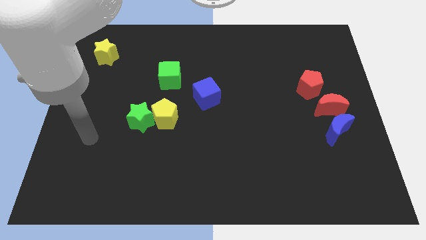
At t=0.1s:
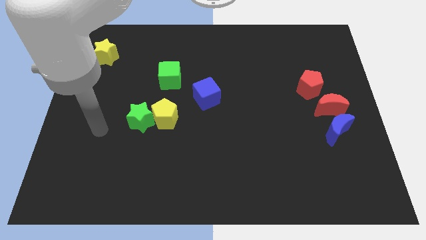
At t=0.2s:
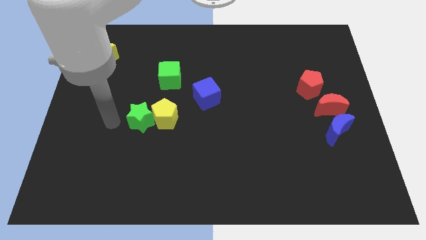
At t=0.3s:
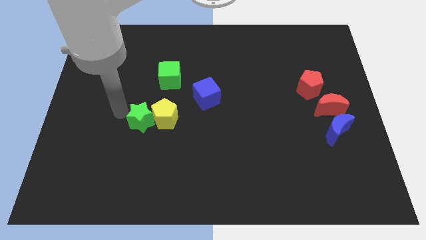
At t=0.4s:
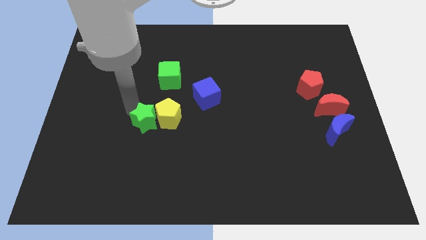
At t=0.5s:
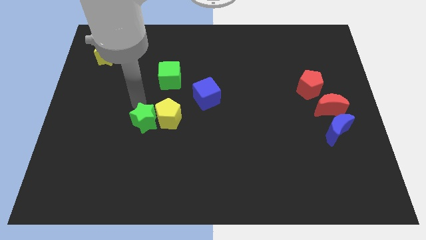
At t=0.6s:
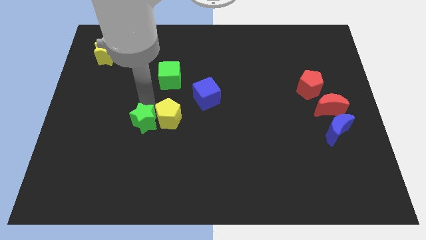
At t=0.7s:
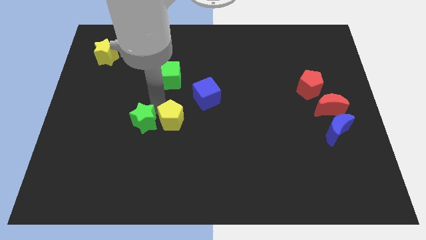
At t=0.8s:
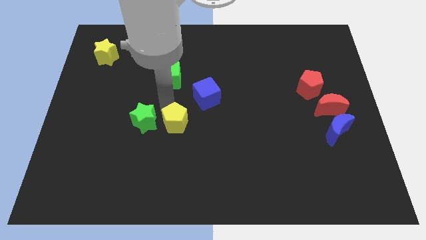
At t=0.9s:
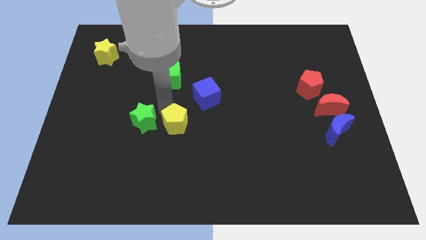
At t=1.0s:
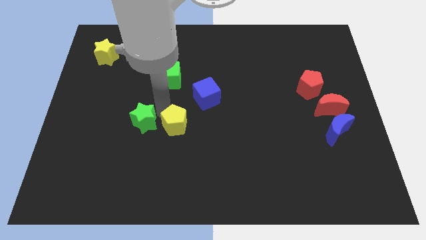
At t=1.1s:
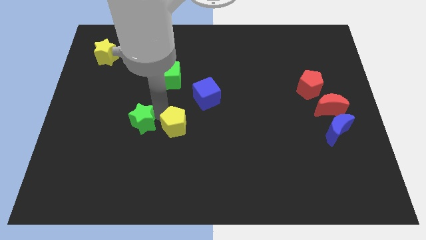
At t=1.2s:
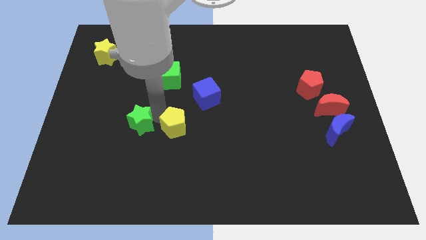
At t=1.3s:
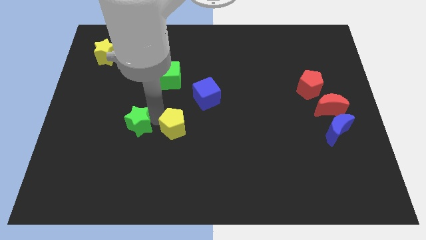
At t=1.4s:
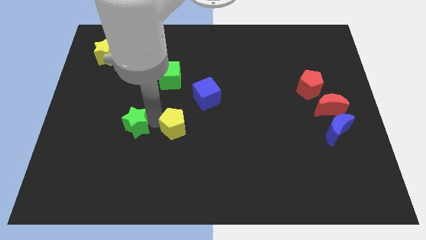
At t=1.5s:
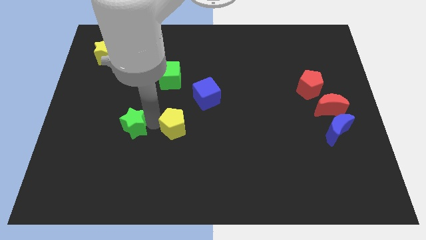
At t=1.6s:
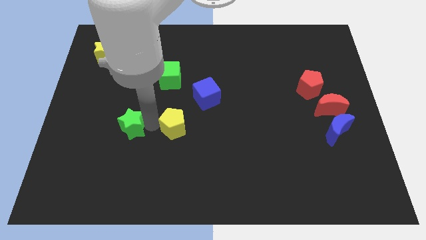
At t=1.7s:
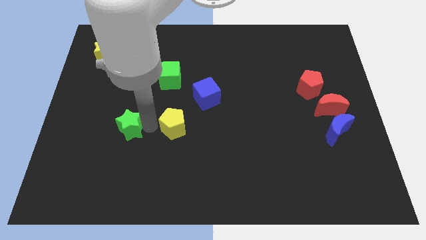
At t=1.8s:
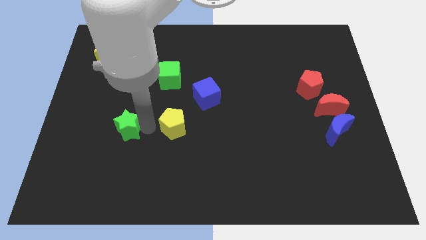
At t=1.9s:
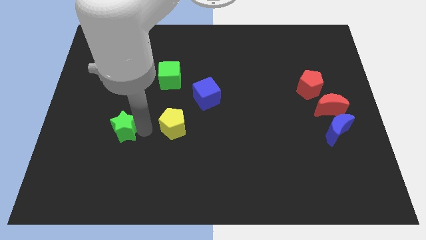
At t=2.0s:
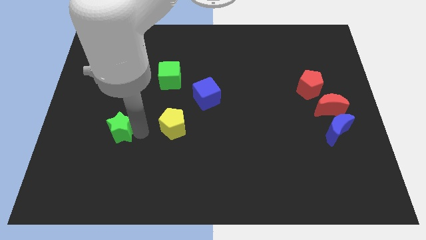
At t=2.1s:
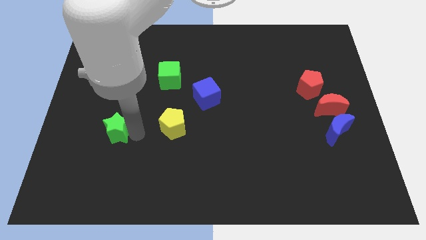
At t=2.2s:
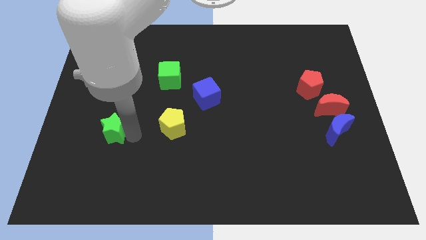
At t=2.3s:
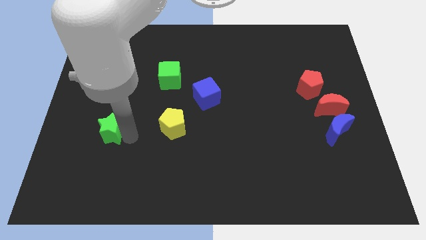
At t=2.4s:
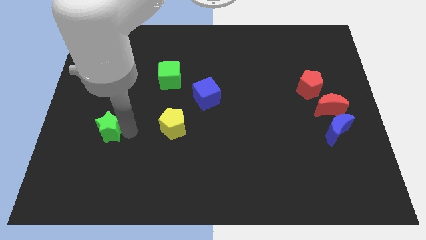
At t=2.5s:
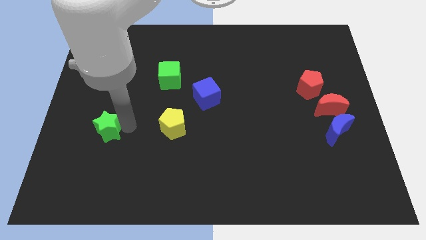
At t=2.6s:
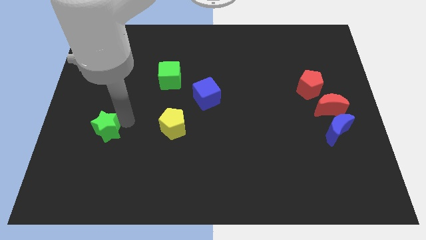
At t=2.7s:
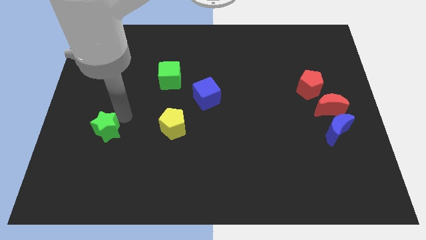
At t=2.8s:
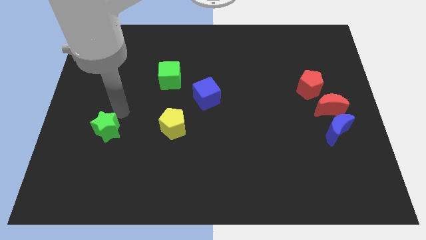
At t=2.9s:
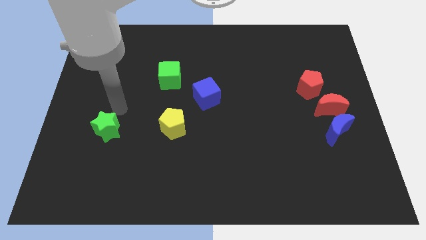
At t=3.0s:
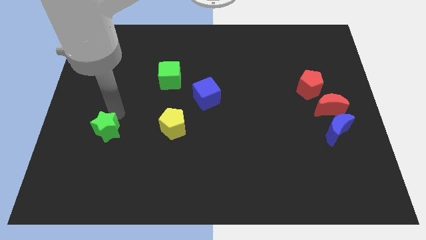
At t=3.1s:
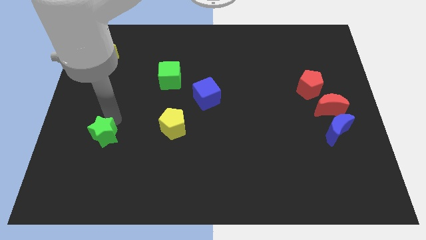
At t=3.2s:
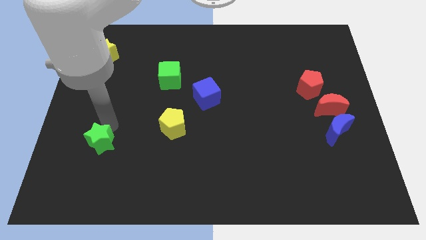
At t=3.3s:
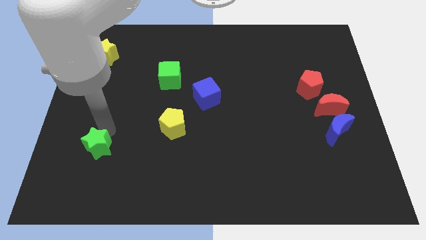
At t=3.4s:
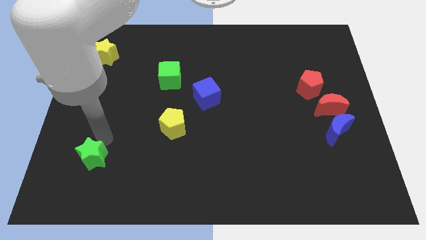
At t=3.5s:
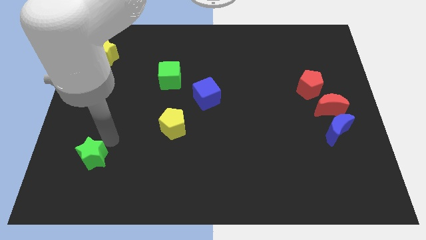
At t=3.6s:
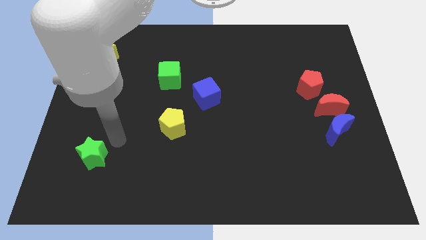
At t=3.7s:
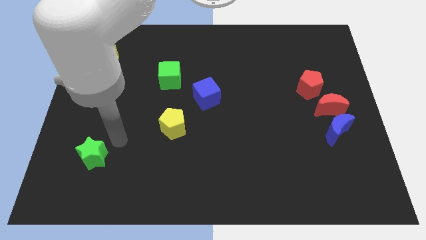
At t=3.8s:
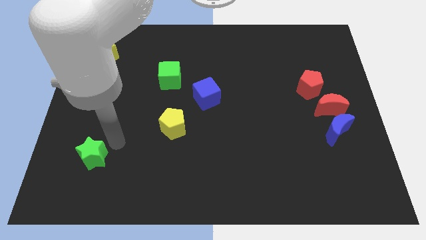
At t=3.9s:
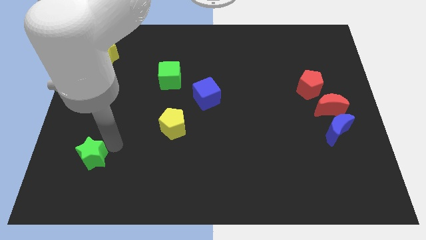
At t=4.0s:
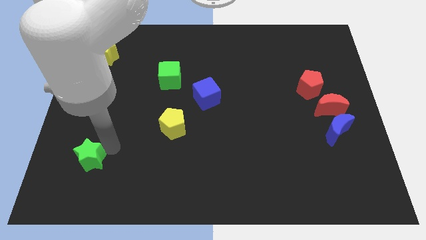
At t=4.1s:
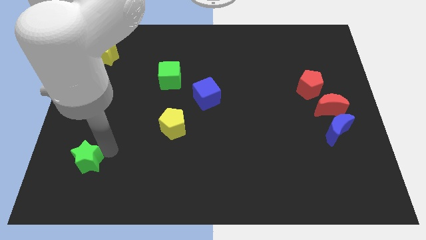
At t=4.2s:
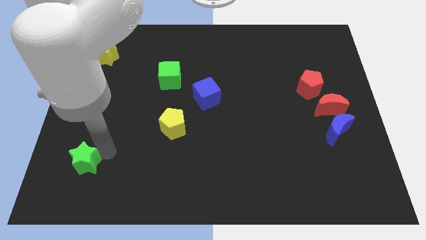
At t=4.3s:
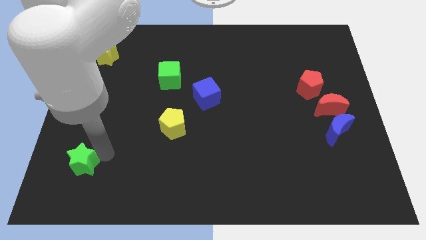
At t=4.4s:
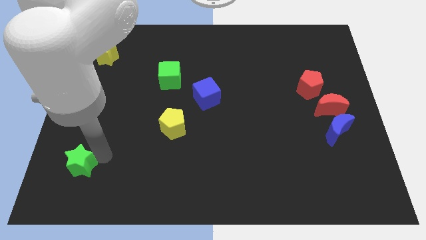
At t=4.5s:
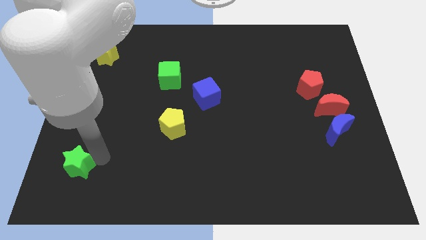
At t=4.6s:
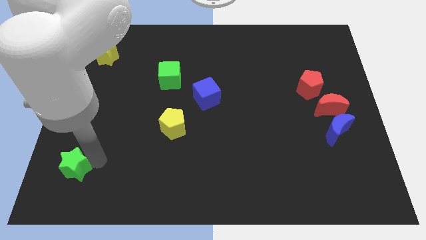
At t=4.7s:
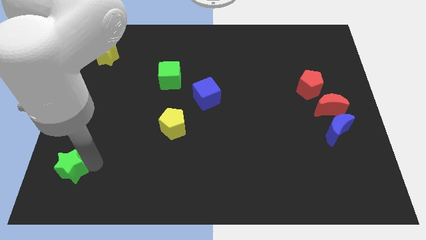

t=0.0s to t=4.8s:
push the green star to the bottom left of the board

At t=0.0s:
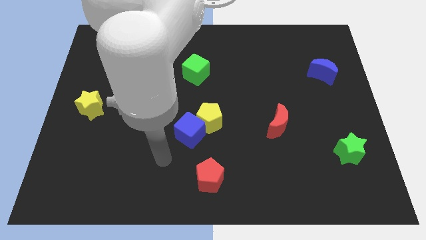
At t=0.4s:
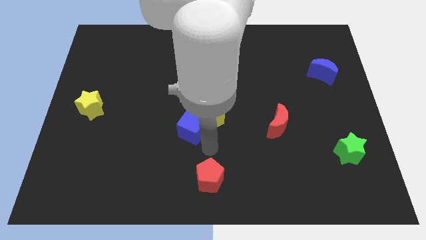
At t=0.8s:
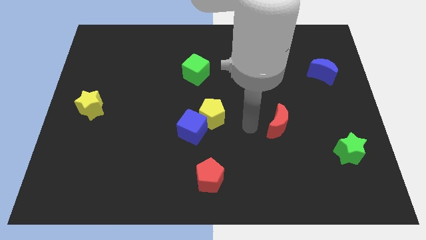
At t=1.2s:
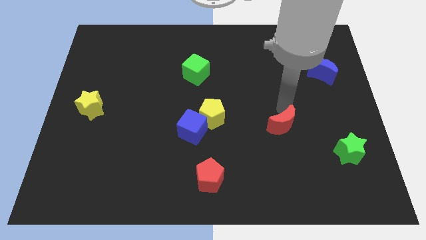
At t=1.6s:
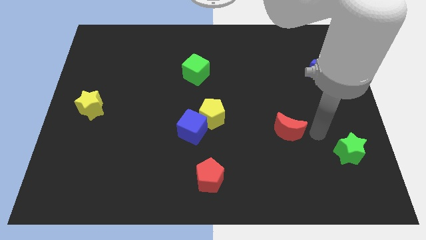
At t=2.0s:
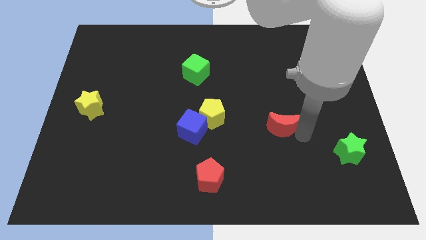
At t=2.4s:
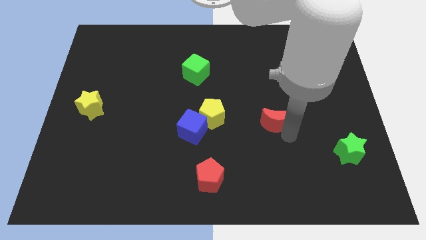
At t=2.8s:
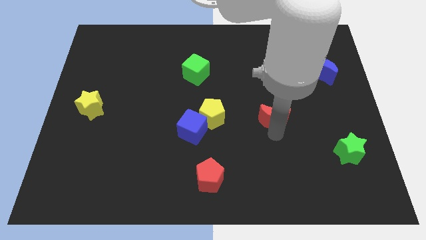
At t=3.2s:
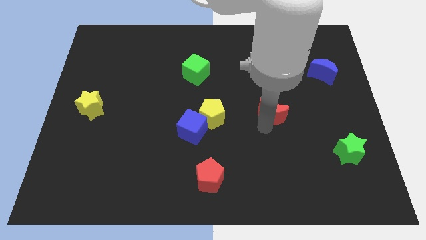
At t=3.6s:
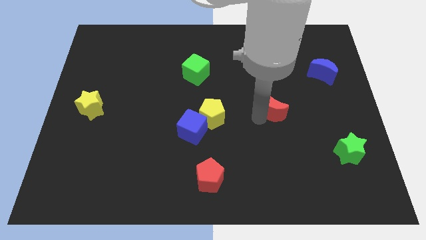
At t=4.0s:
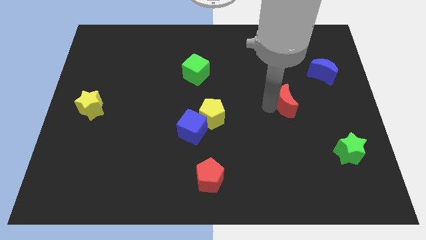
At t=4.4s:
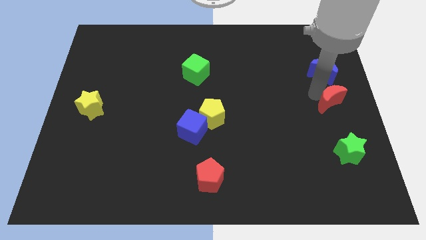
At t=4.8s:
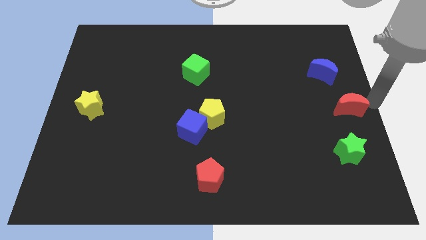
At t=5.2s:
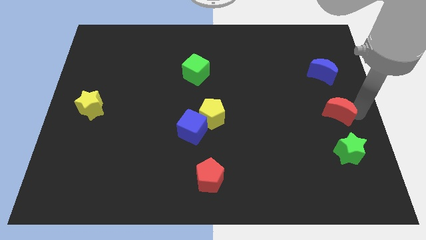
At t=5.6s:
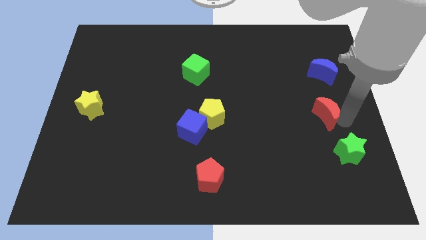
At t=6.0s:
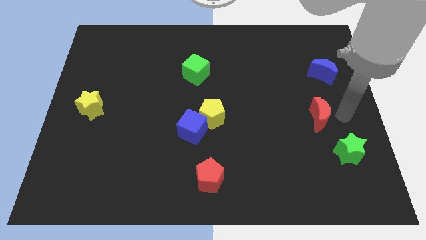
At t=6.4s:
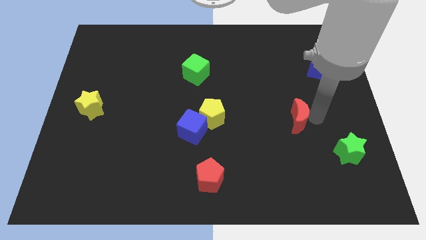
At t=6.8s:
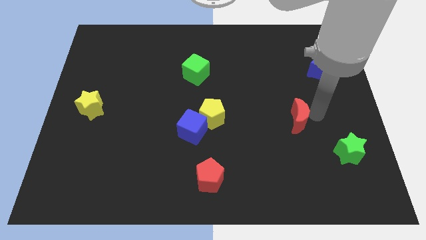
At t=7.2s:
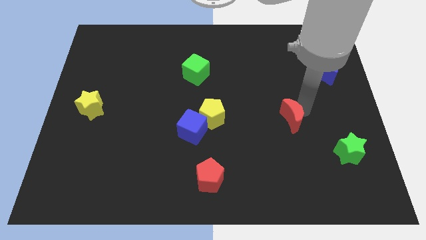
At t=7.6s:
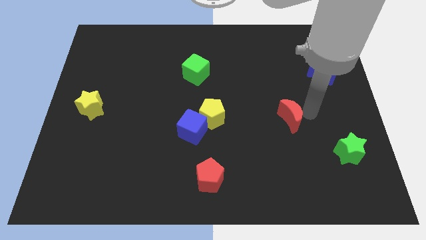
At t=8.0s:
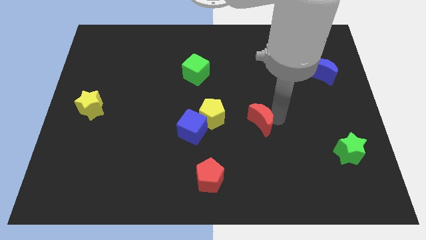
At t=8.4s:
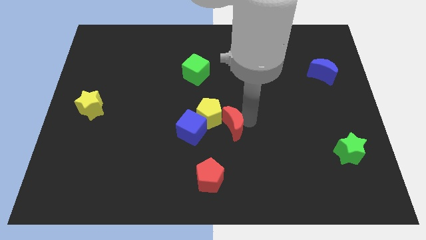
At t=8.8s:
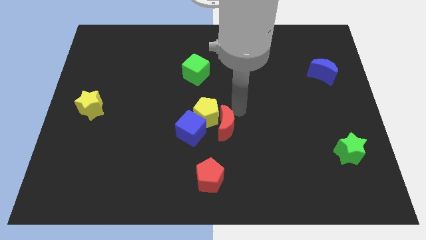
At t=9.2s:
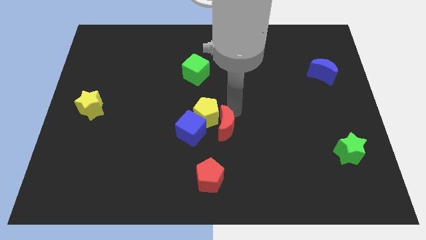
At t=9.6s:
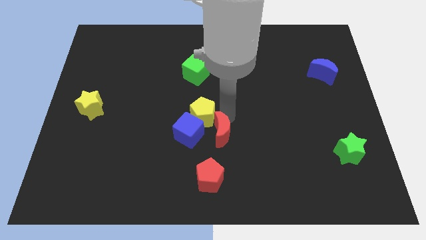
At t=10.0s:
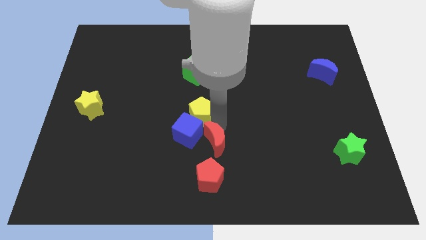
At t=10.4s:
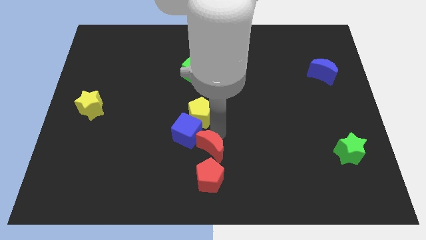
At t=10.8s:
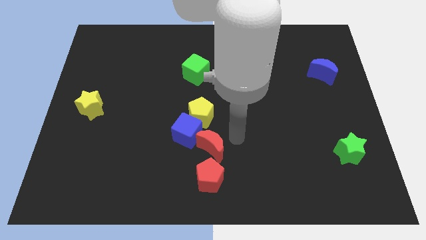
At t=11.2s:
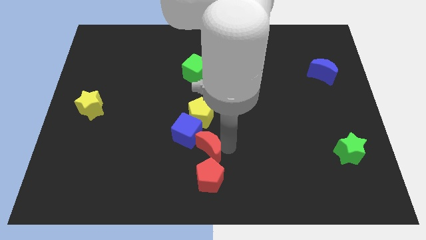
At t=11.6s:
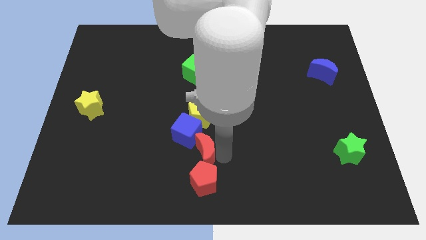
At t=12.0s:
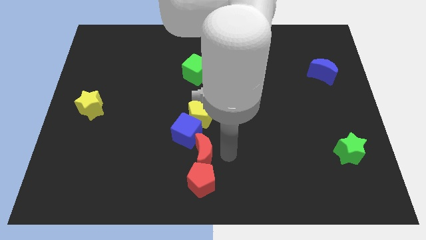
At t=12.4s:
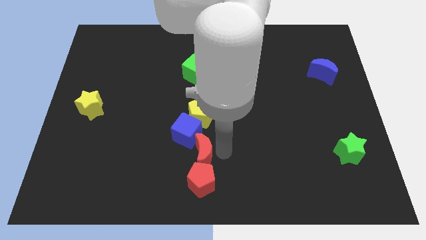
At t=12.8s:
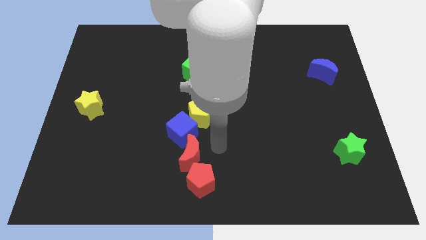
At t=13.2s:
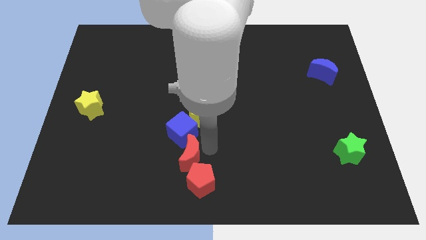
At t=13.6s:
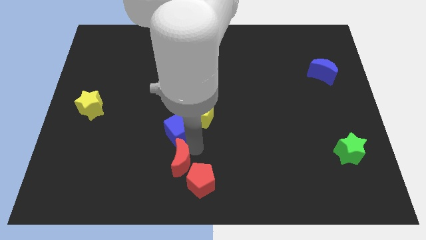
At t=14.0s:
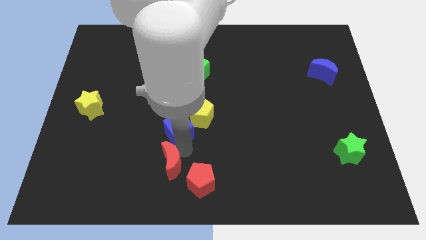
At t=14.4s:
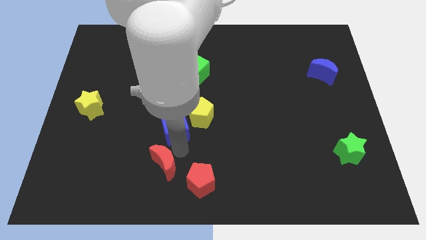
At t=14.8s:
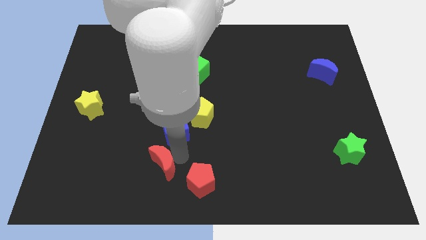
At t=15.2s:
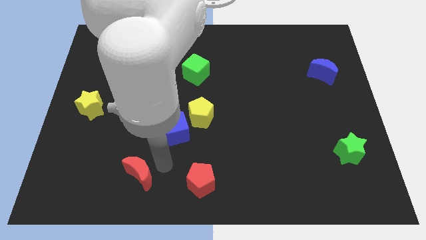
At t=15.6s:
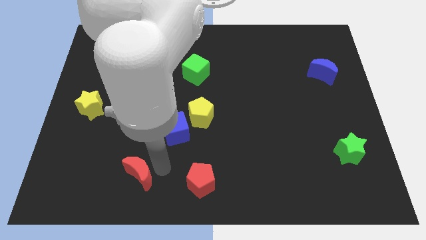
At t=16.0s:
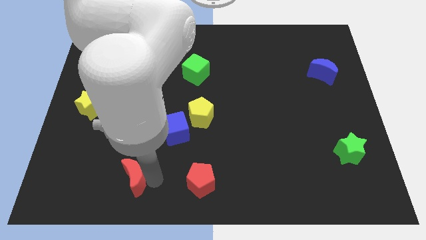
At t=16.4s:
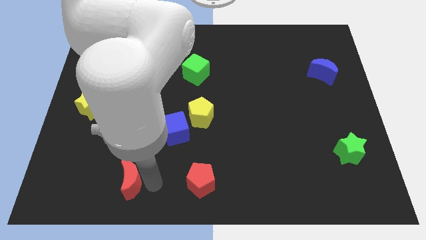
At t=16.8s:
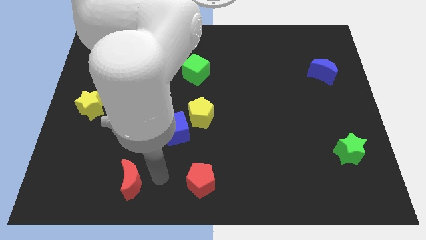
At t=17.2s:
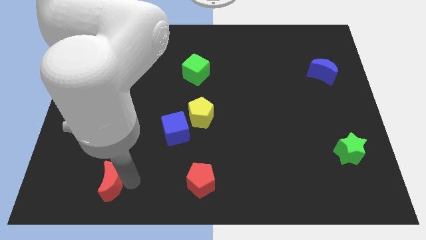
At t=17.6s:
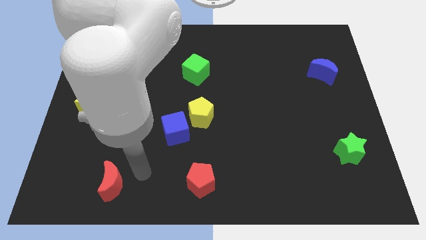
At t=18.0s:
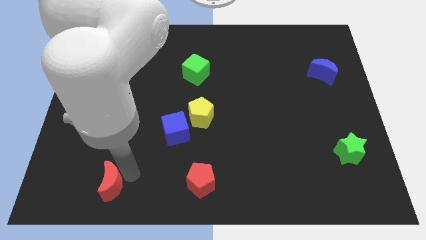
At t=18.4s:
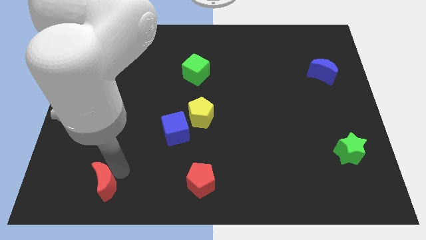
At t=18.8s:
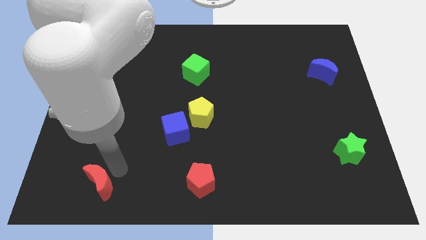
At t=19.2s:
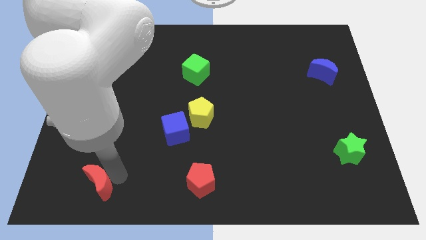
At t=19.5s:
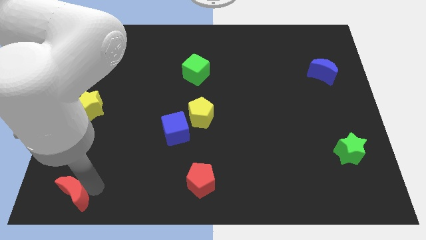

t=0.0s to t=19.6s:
put the red moon to the lower left corner
